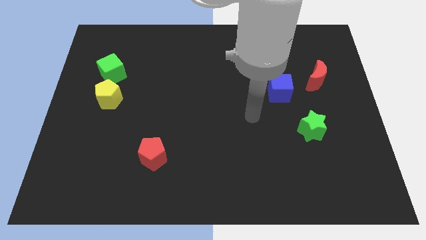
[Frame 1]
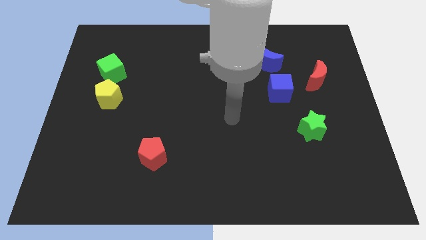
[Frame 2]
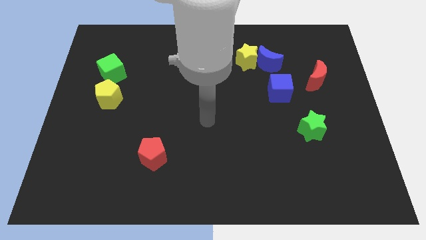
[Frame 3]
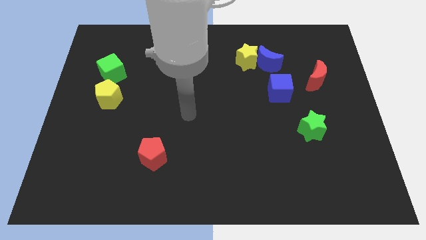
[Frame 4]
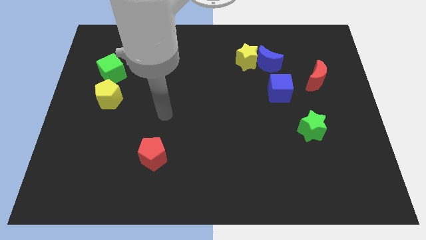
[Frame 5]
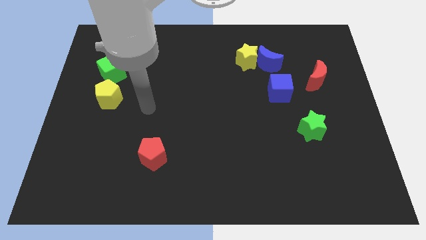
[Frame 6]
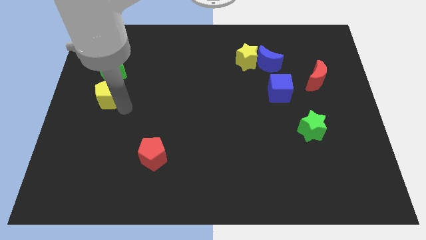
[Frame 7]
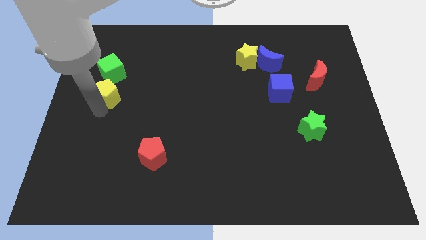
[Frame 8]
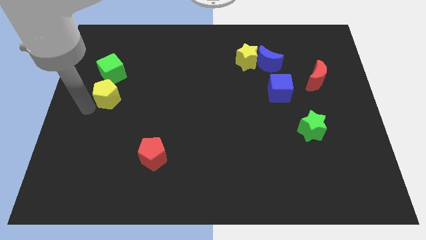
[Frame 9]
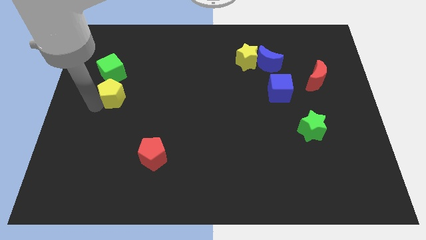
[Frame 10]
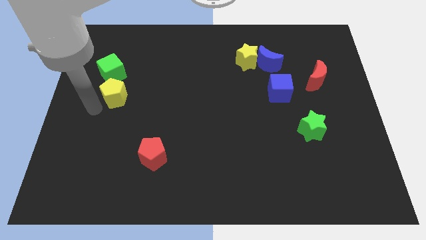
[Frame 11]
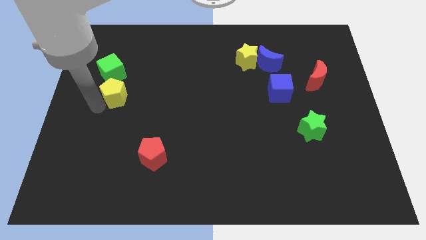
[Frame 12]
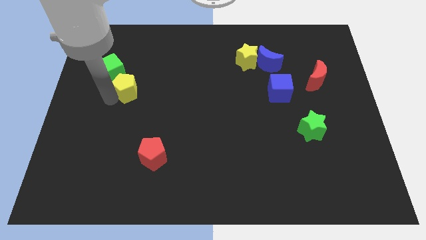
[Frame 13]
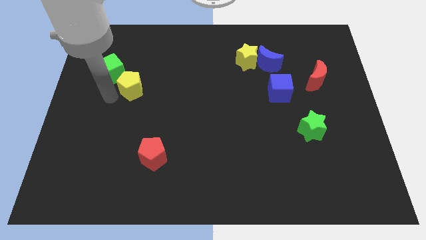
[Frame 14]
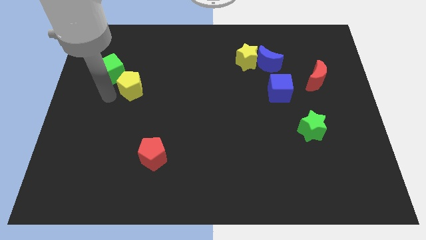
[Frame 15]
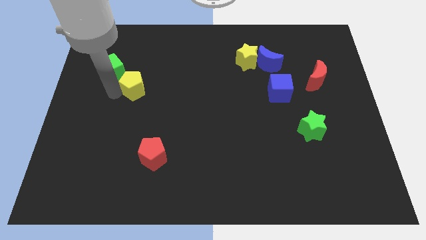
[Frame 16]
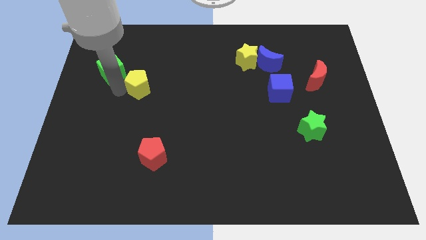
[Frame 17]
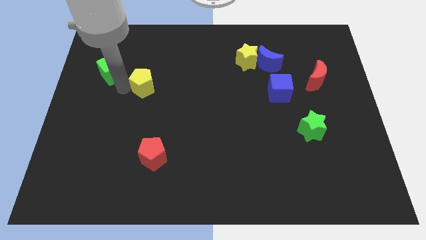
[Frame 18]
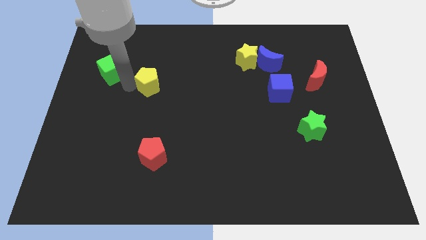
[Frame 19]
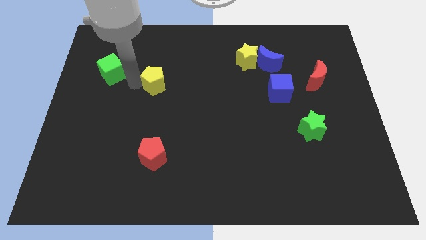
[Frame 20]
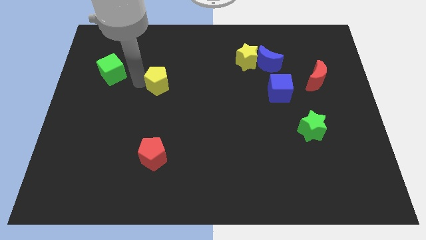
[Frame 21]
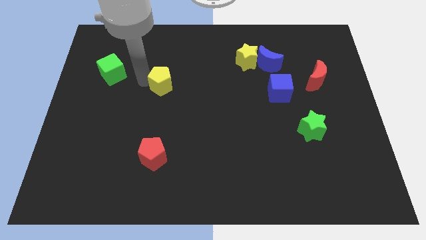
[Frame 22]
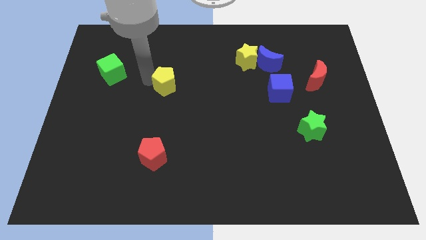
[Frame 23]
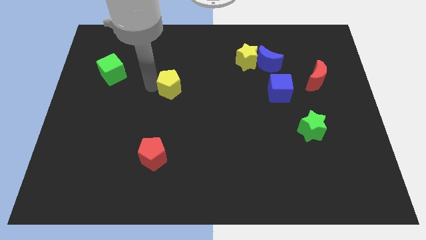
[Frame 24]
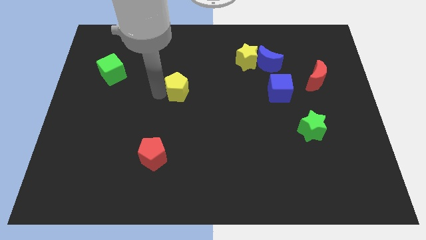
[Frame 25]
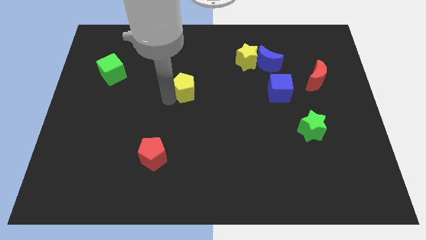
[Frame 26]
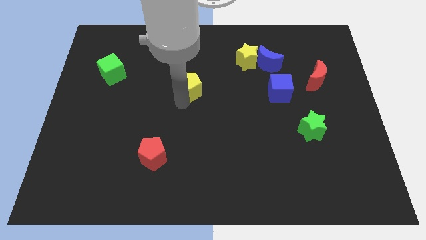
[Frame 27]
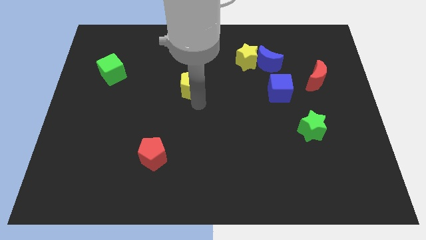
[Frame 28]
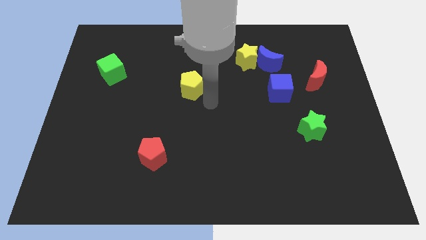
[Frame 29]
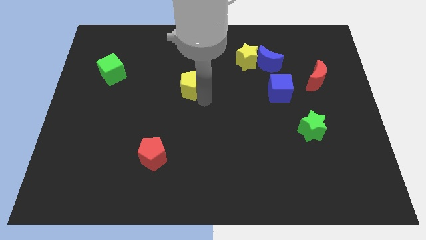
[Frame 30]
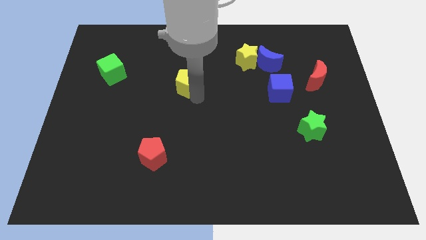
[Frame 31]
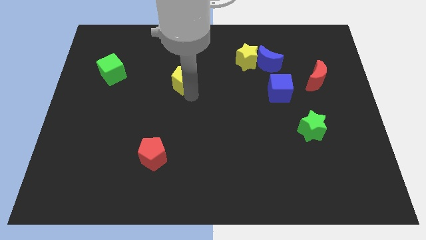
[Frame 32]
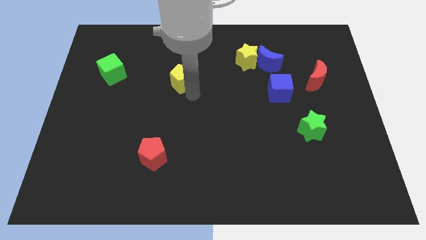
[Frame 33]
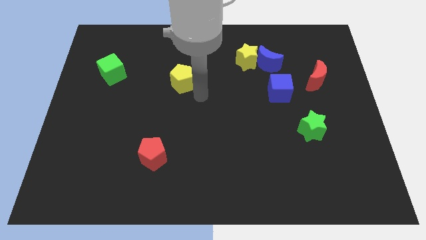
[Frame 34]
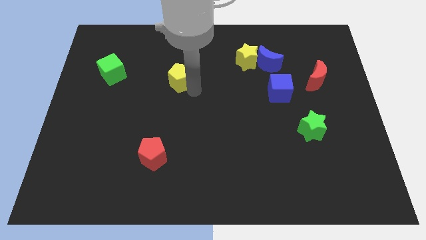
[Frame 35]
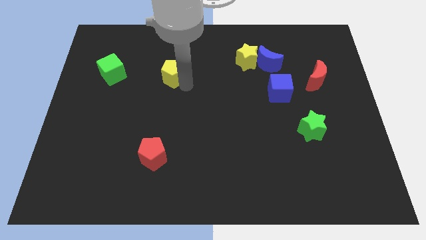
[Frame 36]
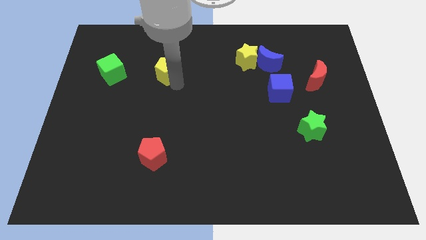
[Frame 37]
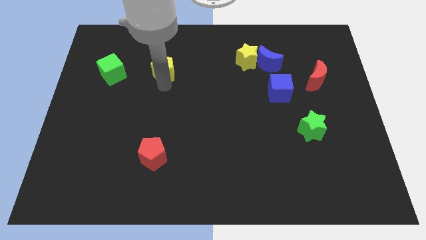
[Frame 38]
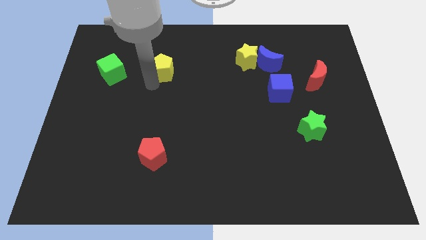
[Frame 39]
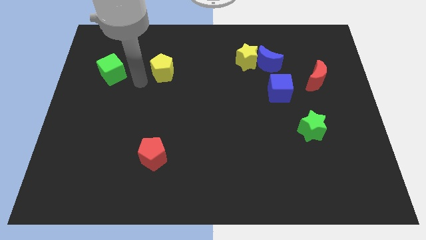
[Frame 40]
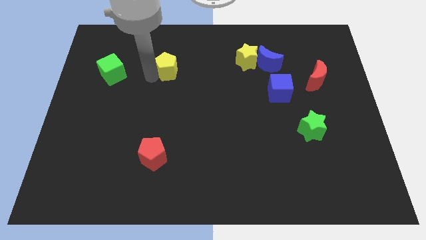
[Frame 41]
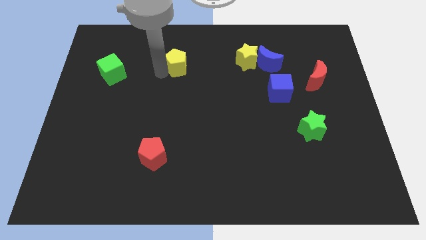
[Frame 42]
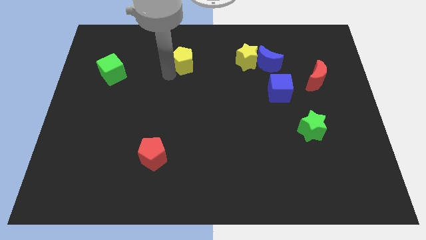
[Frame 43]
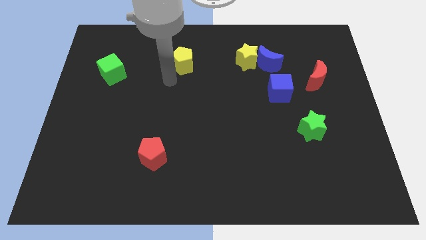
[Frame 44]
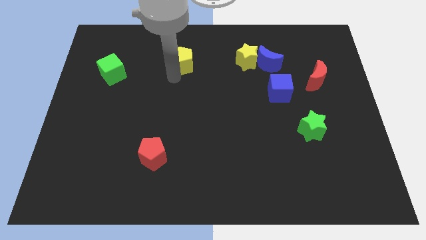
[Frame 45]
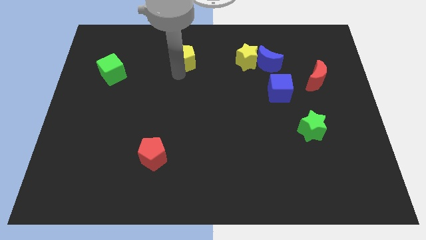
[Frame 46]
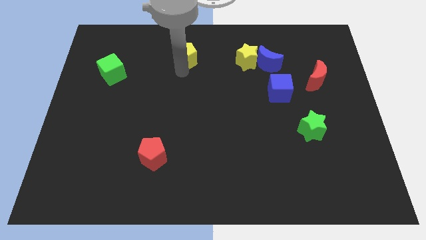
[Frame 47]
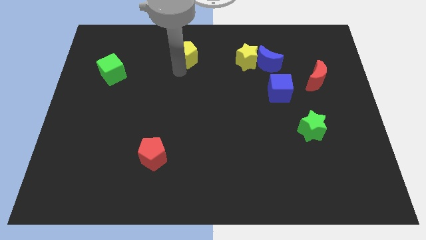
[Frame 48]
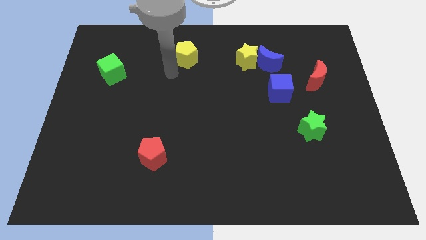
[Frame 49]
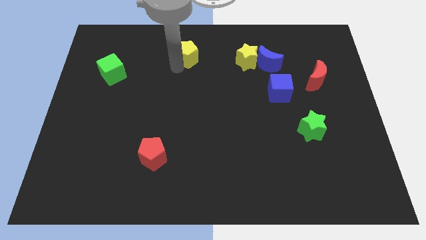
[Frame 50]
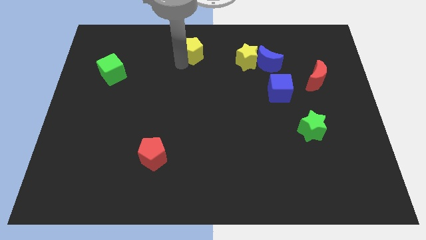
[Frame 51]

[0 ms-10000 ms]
push the yellow pentagon to the top side

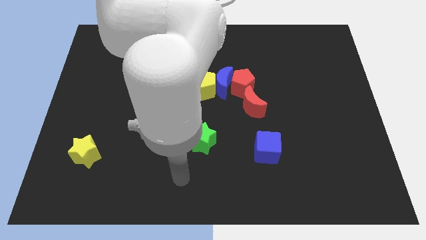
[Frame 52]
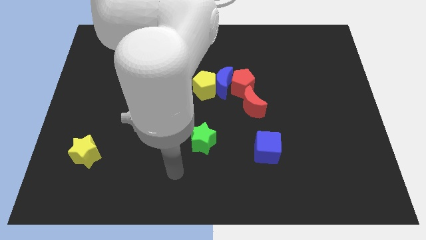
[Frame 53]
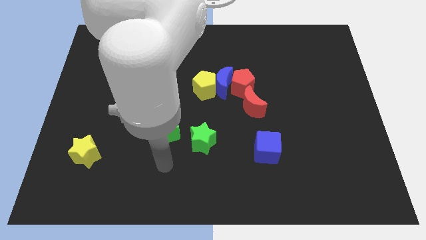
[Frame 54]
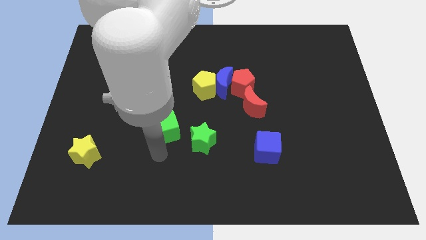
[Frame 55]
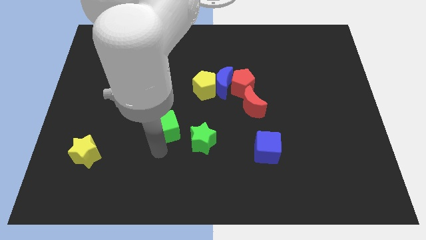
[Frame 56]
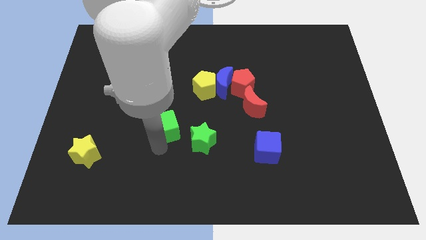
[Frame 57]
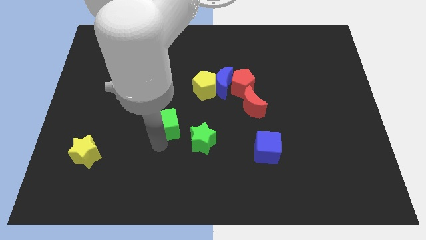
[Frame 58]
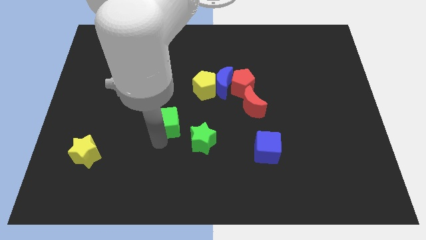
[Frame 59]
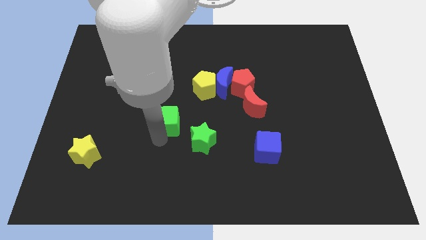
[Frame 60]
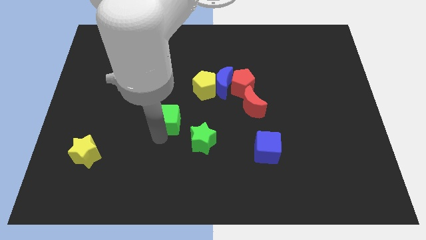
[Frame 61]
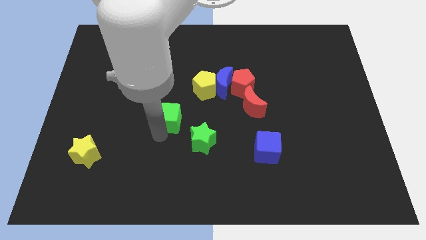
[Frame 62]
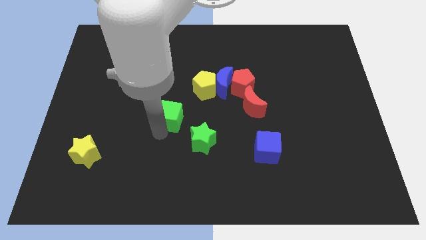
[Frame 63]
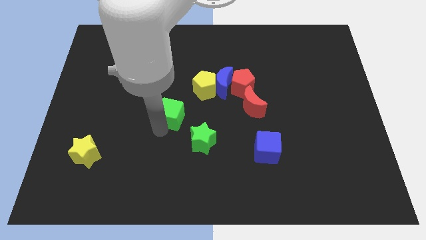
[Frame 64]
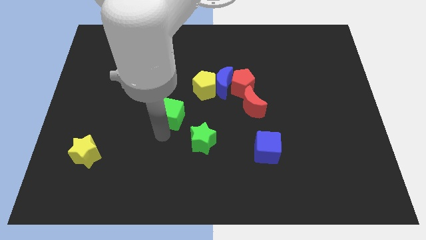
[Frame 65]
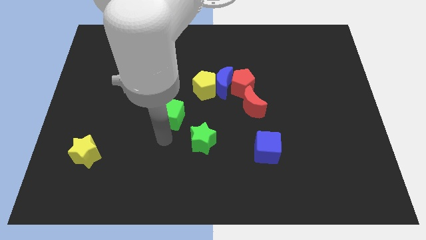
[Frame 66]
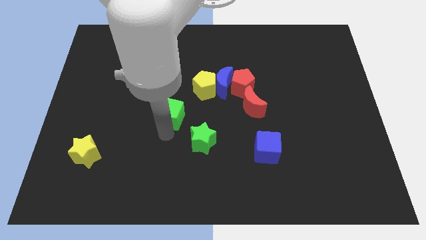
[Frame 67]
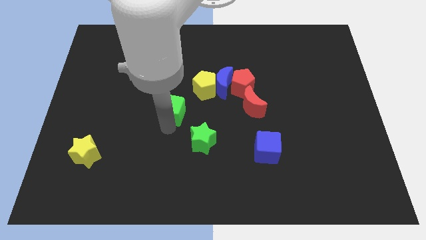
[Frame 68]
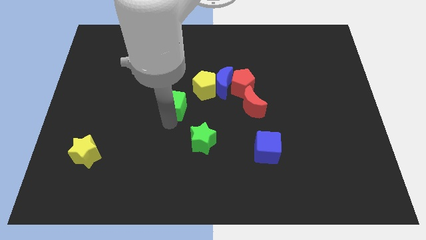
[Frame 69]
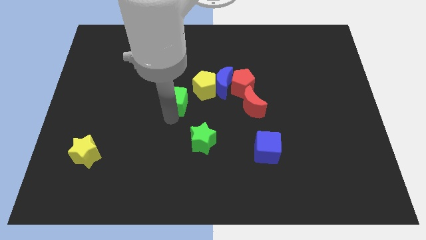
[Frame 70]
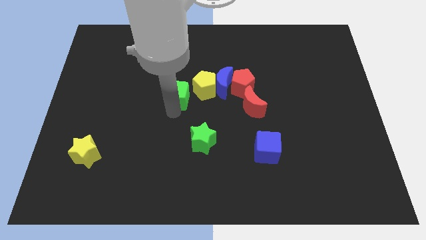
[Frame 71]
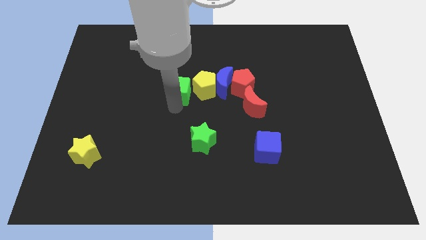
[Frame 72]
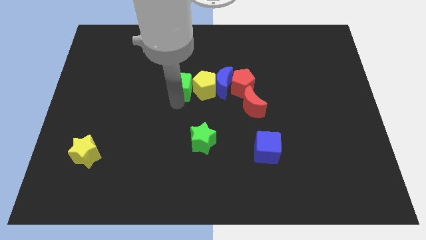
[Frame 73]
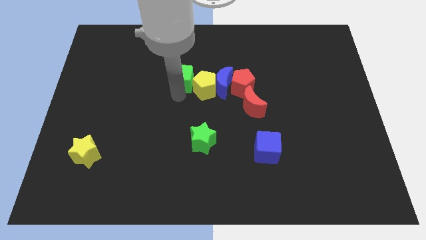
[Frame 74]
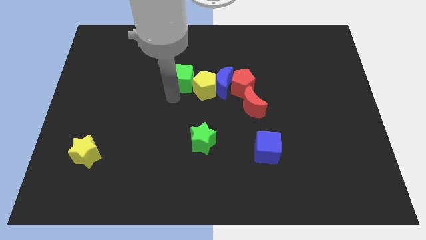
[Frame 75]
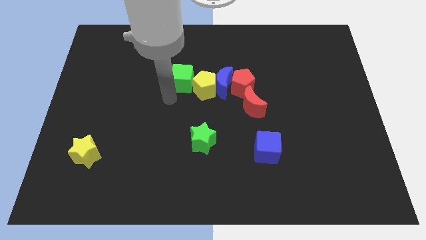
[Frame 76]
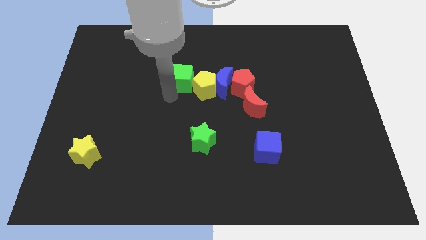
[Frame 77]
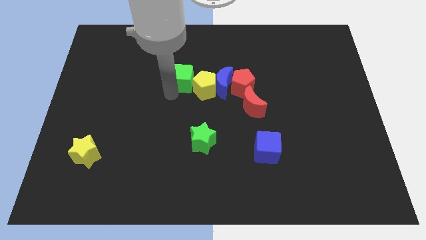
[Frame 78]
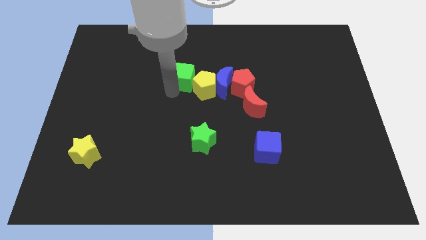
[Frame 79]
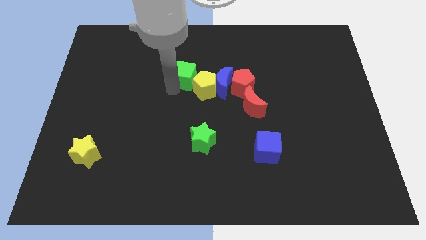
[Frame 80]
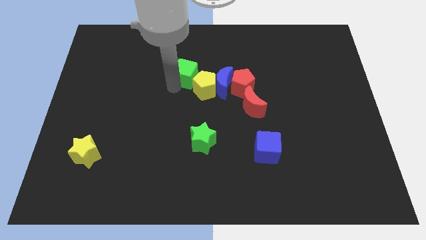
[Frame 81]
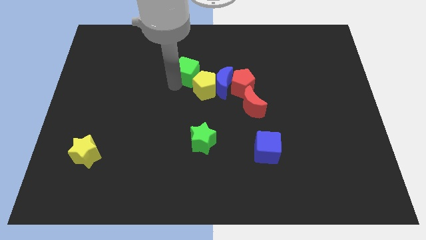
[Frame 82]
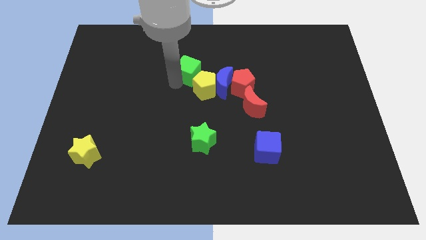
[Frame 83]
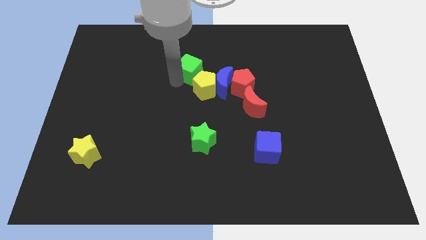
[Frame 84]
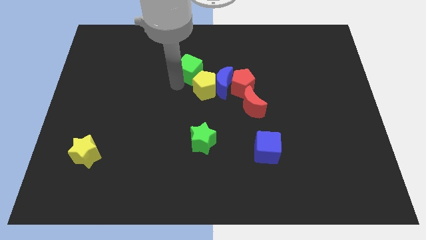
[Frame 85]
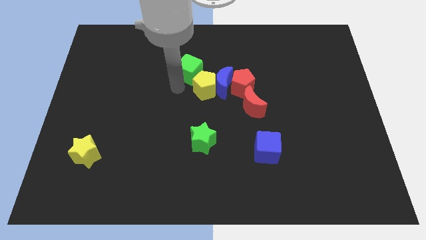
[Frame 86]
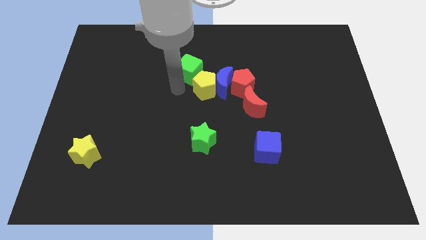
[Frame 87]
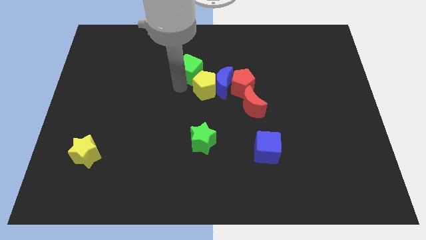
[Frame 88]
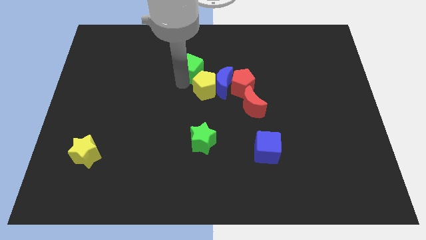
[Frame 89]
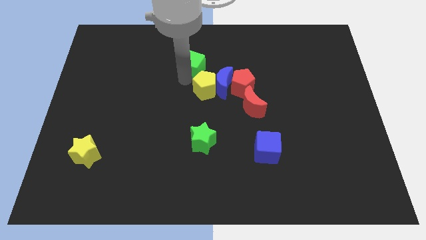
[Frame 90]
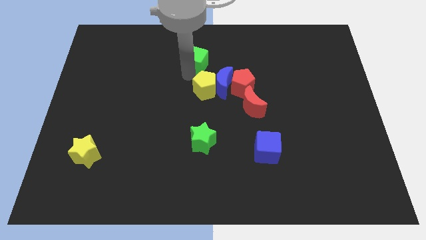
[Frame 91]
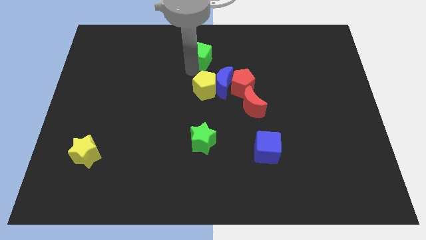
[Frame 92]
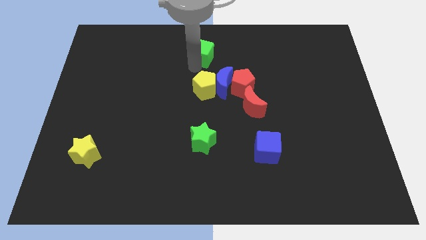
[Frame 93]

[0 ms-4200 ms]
slide the green cube to the top
